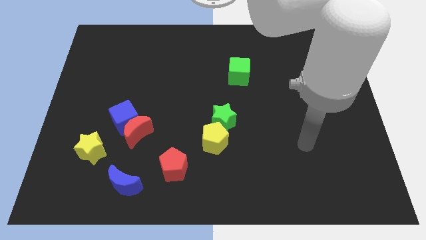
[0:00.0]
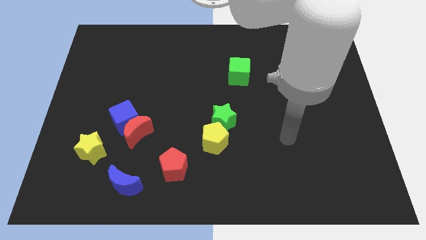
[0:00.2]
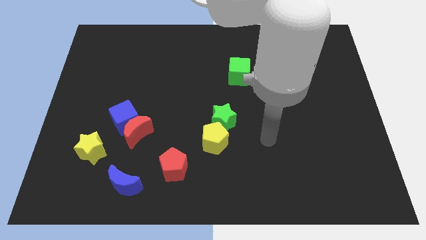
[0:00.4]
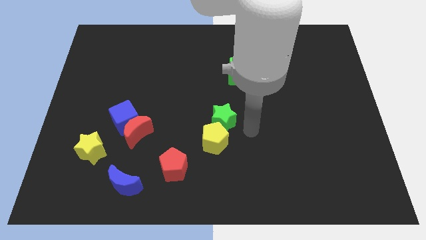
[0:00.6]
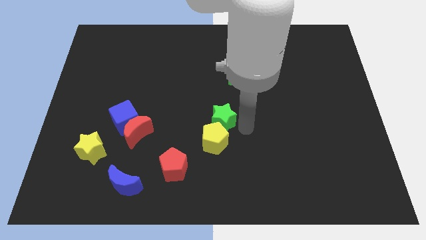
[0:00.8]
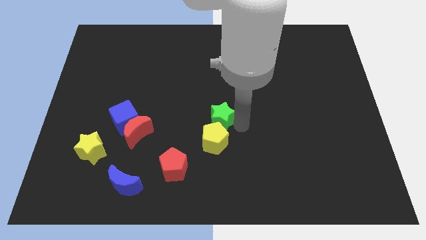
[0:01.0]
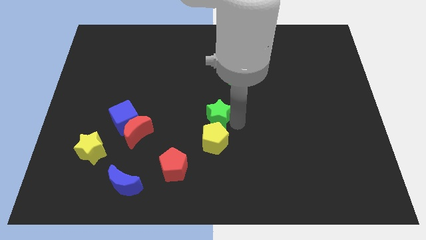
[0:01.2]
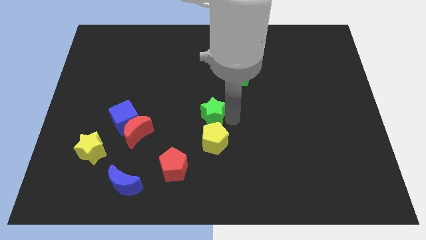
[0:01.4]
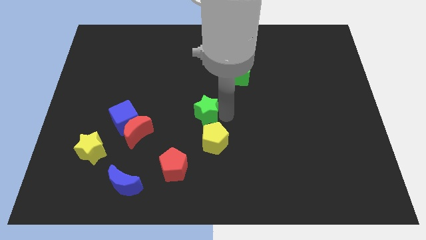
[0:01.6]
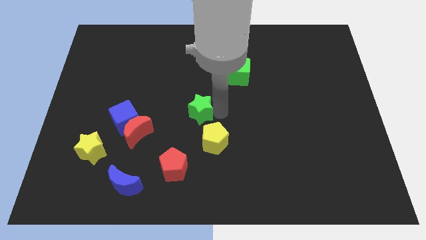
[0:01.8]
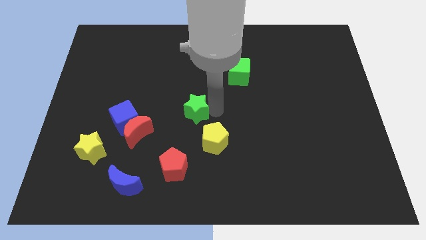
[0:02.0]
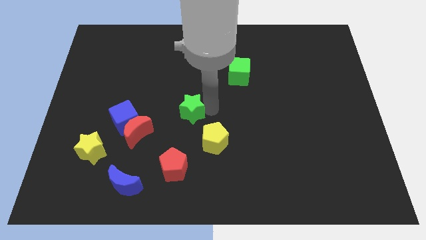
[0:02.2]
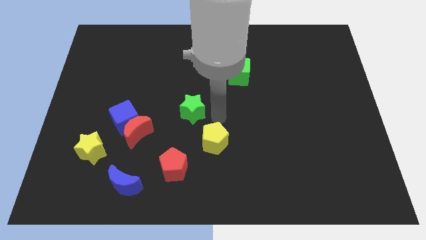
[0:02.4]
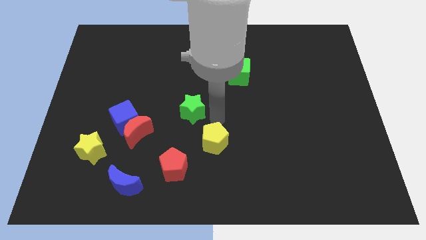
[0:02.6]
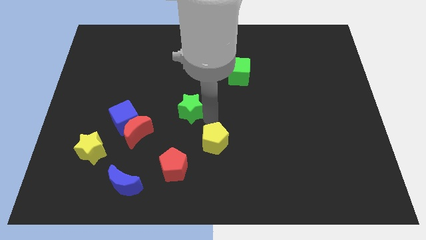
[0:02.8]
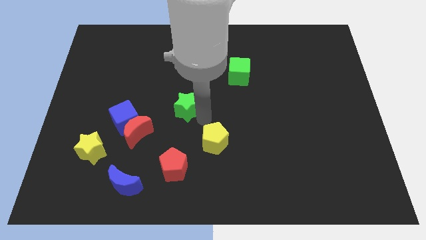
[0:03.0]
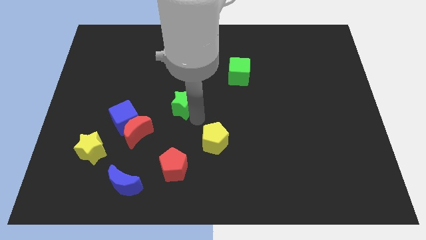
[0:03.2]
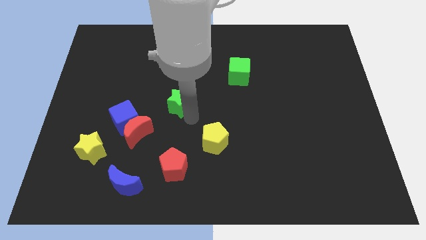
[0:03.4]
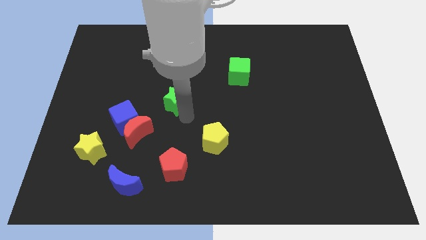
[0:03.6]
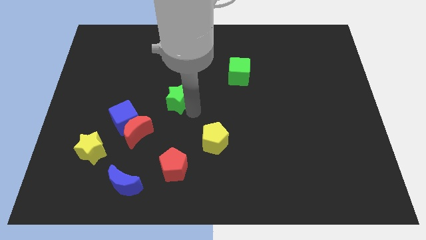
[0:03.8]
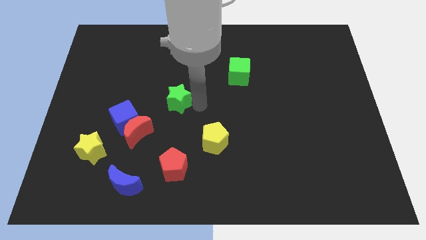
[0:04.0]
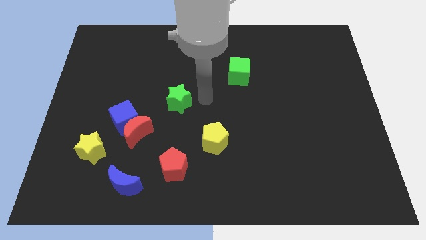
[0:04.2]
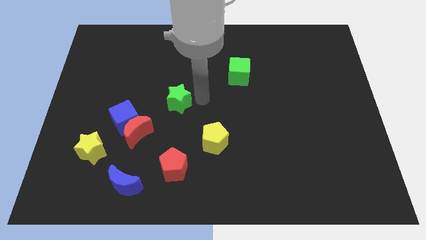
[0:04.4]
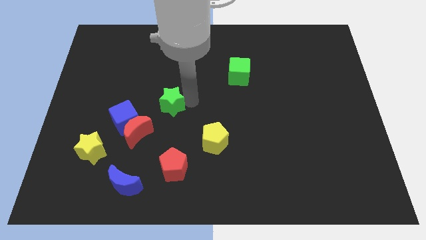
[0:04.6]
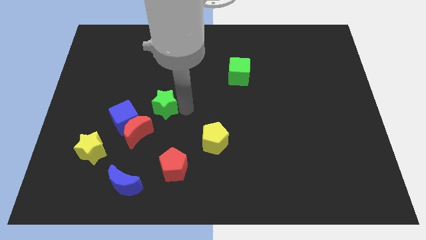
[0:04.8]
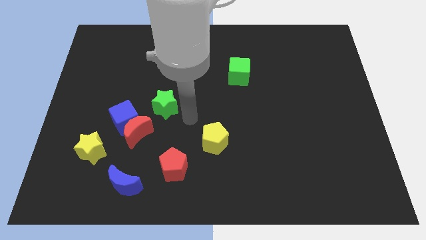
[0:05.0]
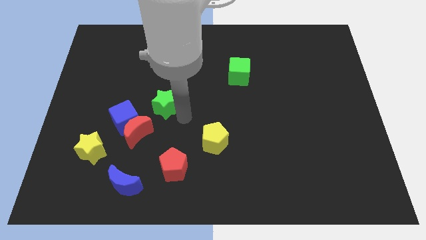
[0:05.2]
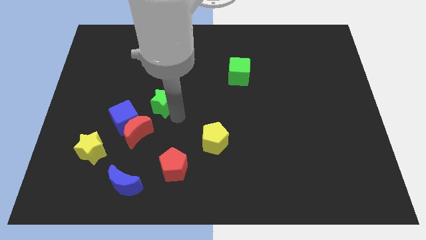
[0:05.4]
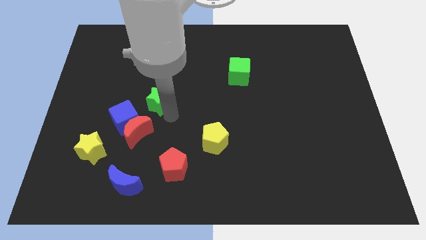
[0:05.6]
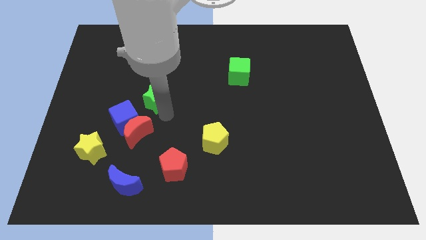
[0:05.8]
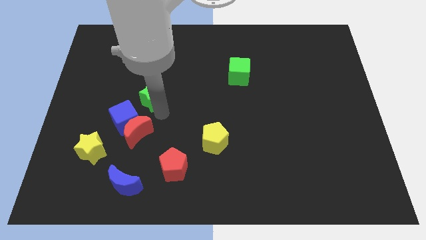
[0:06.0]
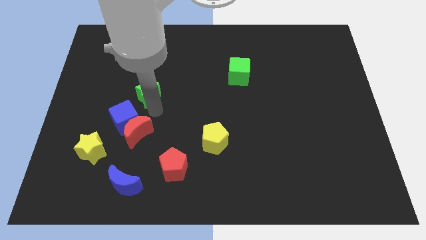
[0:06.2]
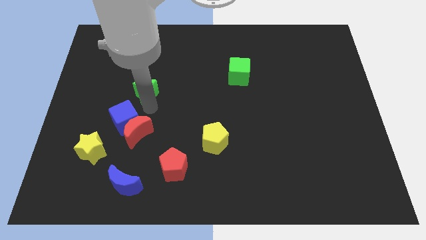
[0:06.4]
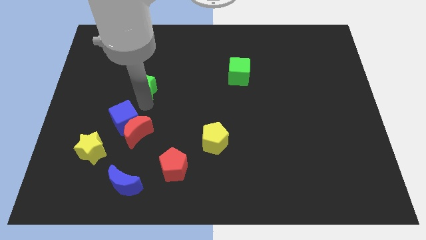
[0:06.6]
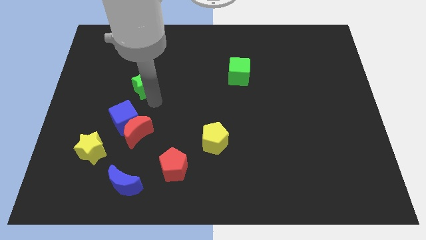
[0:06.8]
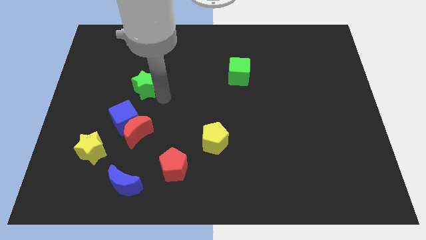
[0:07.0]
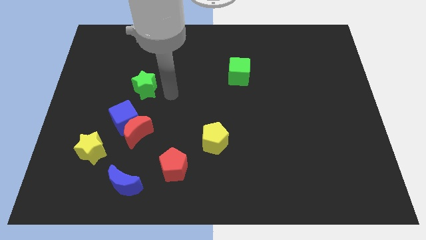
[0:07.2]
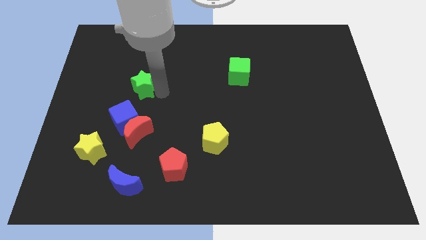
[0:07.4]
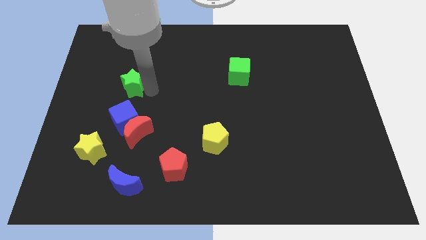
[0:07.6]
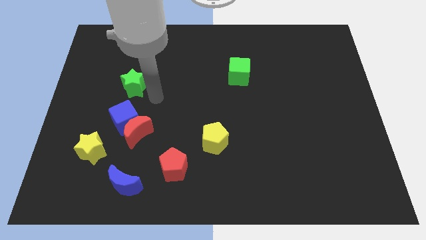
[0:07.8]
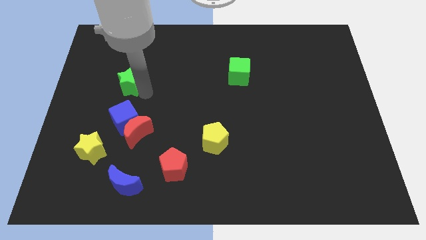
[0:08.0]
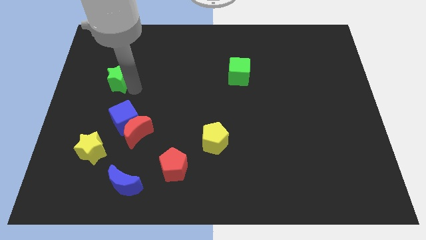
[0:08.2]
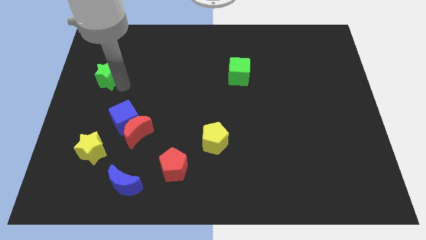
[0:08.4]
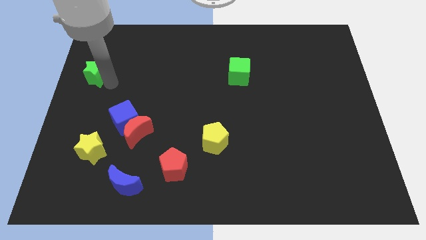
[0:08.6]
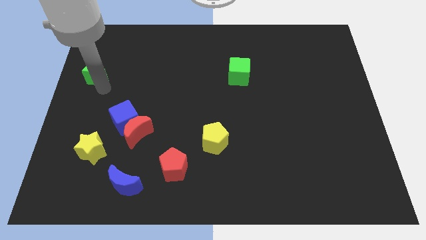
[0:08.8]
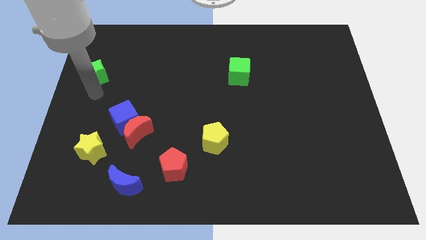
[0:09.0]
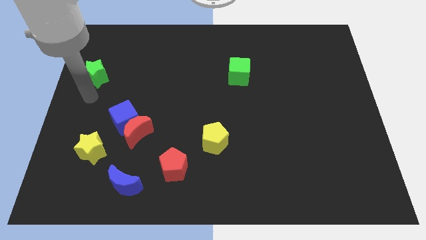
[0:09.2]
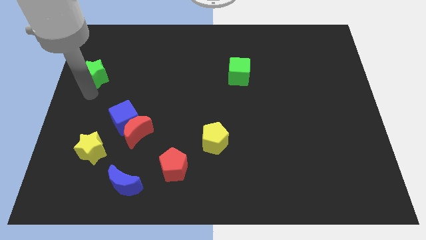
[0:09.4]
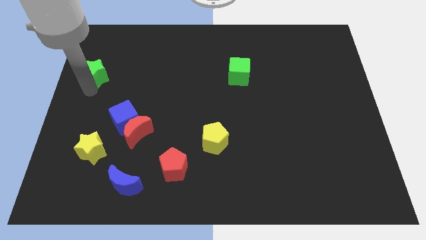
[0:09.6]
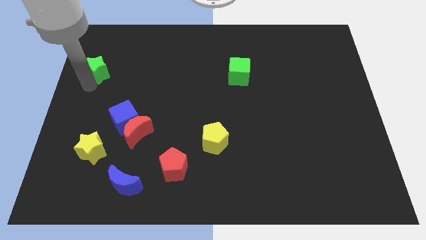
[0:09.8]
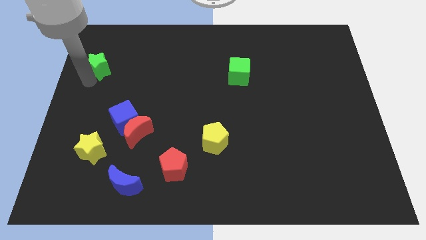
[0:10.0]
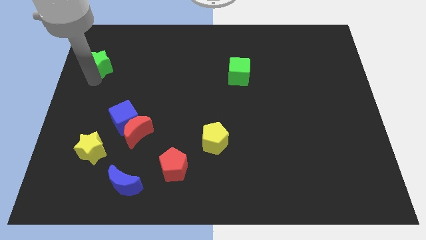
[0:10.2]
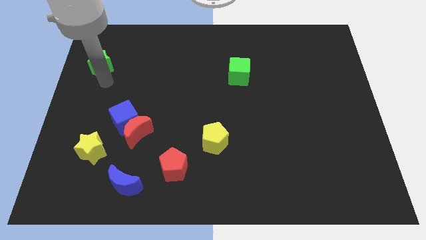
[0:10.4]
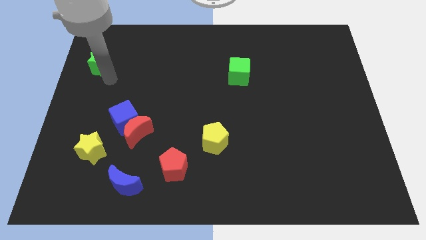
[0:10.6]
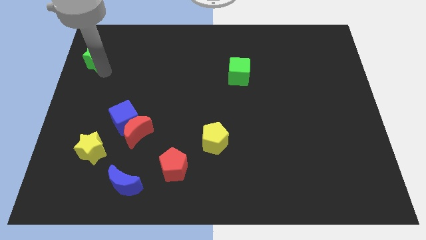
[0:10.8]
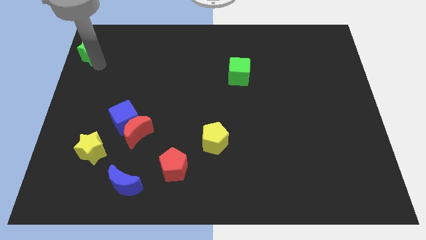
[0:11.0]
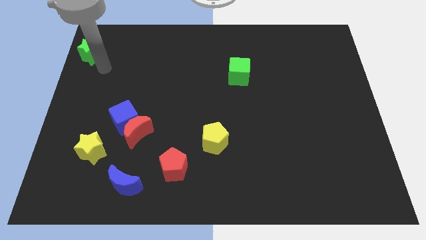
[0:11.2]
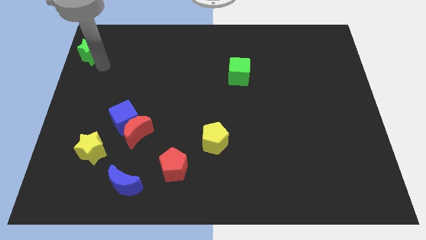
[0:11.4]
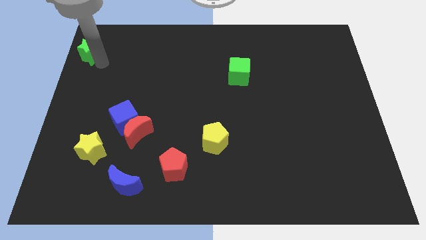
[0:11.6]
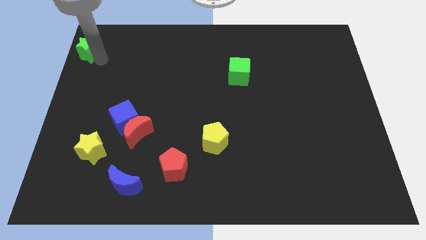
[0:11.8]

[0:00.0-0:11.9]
slide the green star to the top left
